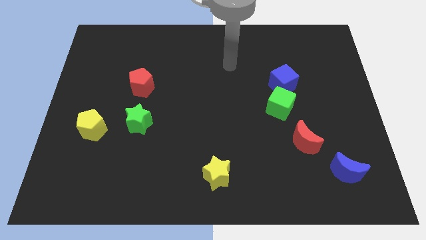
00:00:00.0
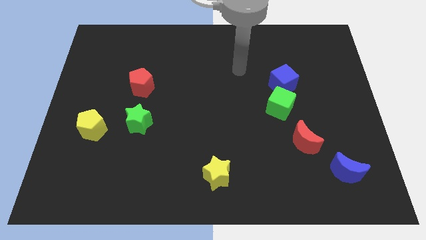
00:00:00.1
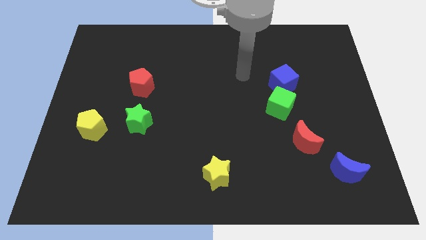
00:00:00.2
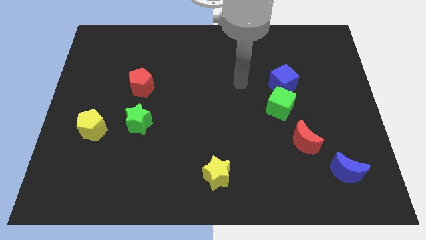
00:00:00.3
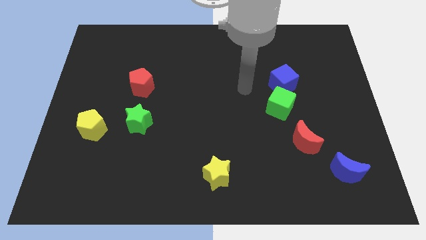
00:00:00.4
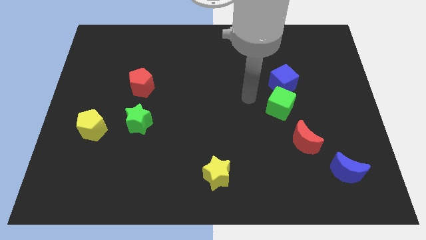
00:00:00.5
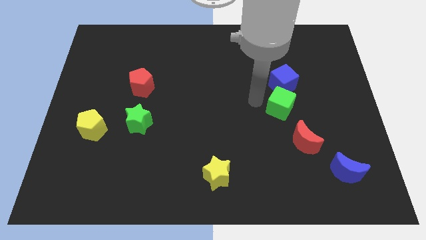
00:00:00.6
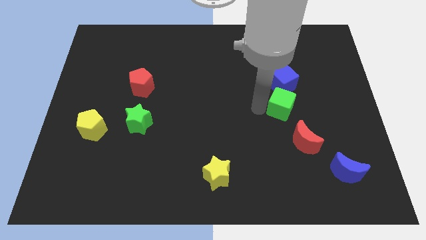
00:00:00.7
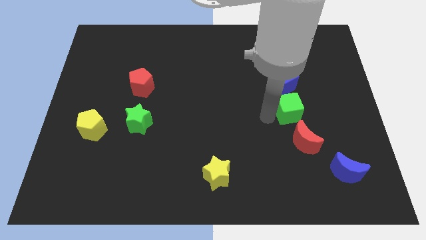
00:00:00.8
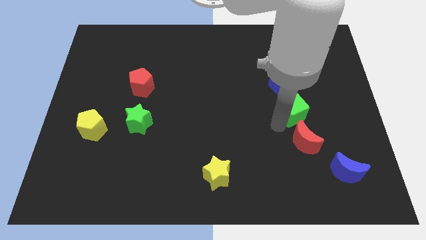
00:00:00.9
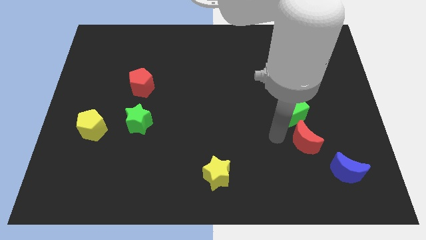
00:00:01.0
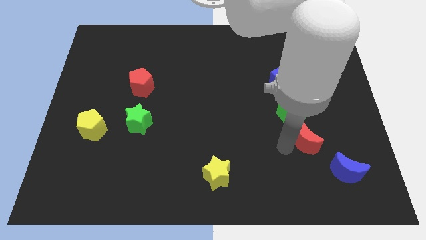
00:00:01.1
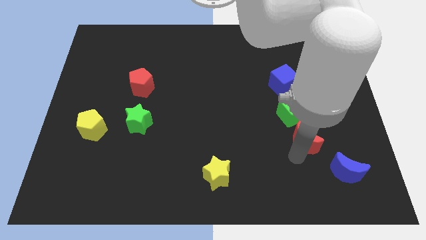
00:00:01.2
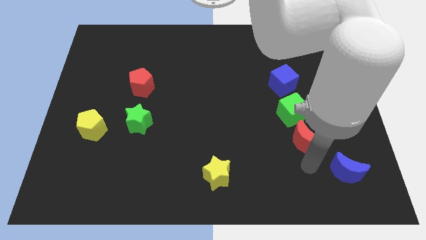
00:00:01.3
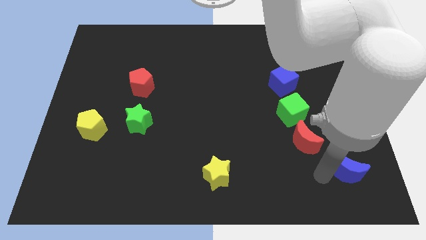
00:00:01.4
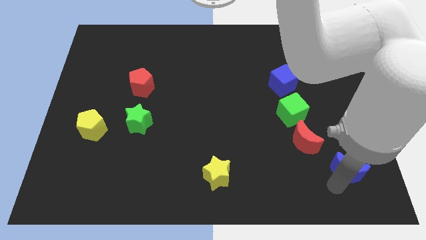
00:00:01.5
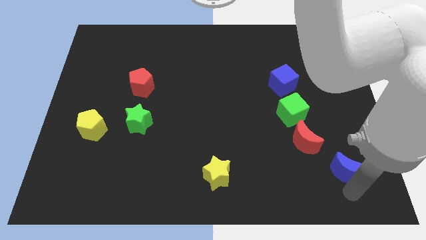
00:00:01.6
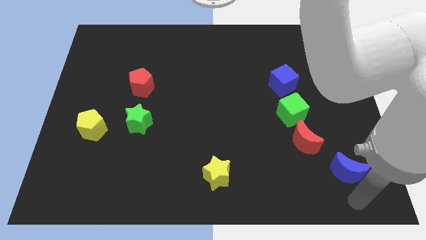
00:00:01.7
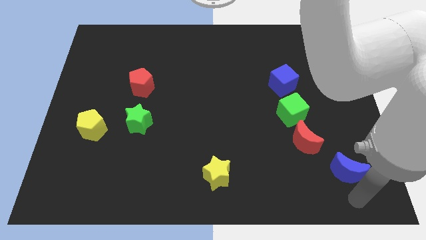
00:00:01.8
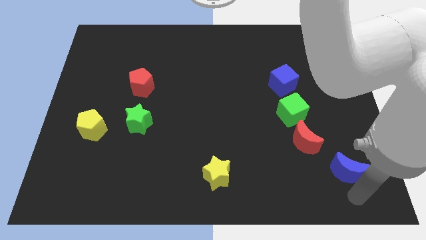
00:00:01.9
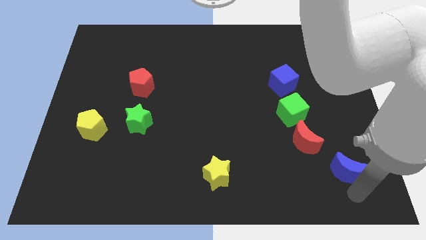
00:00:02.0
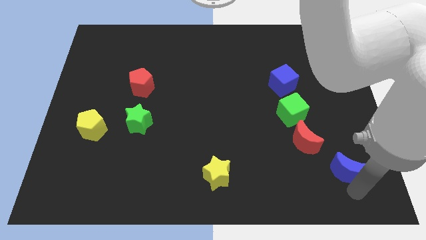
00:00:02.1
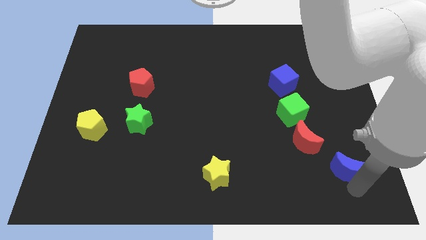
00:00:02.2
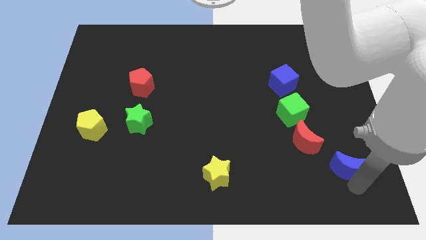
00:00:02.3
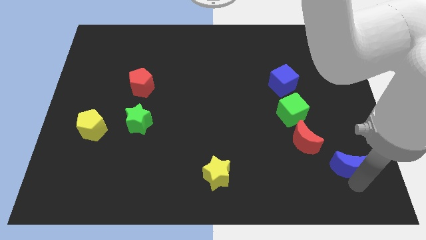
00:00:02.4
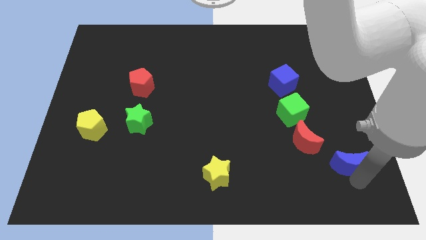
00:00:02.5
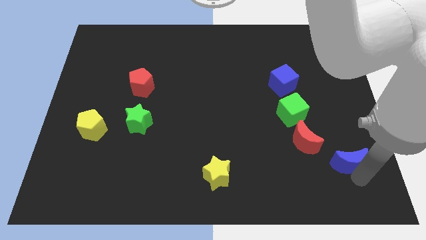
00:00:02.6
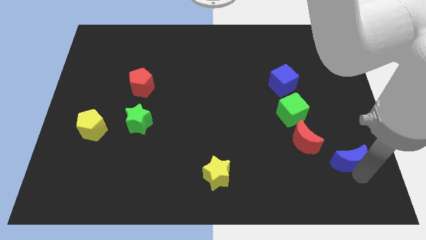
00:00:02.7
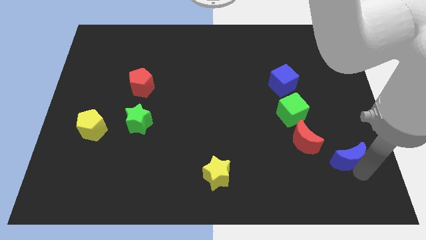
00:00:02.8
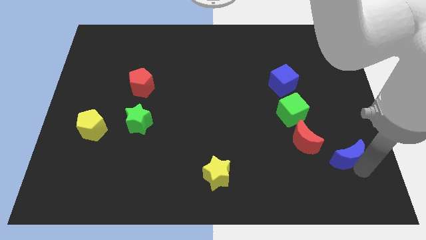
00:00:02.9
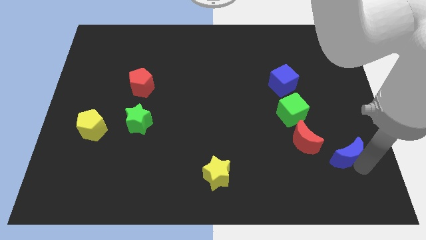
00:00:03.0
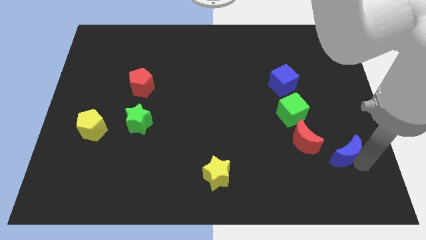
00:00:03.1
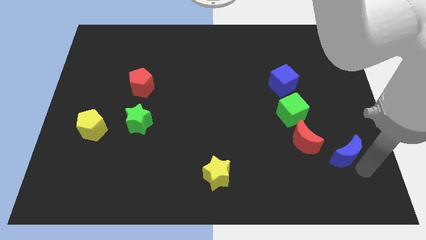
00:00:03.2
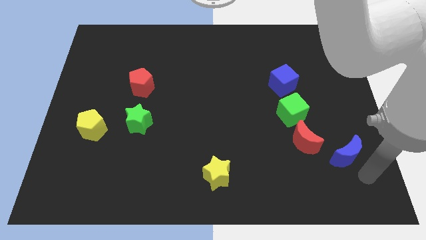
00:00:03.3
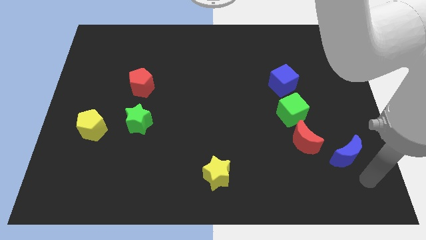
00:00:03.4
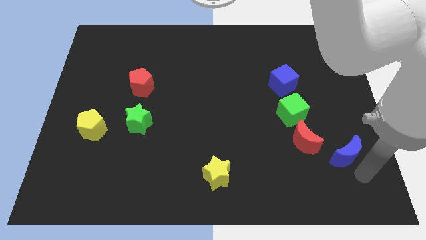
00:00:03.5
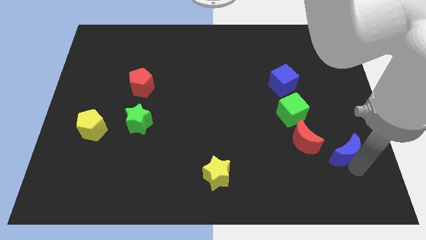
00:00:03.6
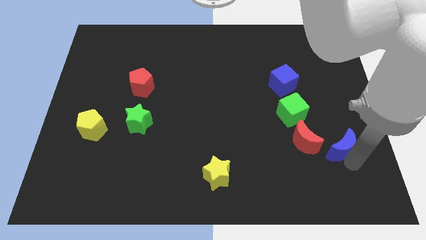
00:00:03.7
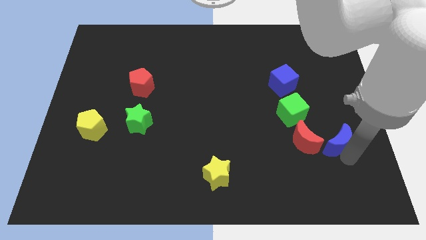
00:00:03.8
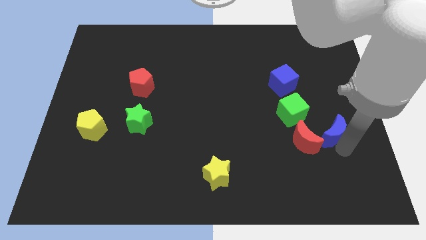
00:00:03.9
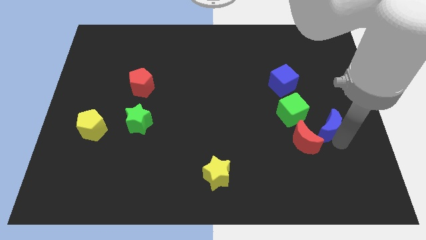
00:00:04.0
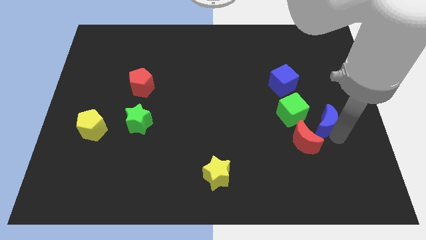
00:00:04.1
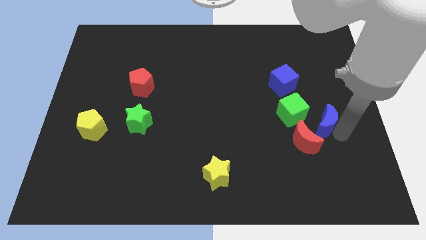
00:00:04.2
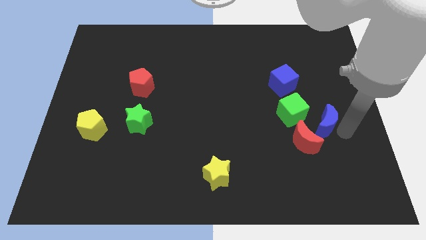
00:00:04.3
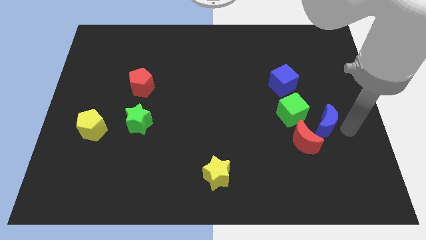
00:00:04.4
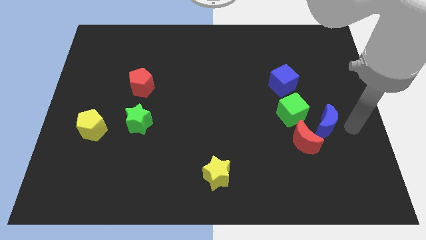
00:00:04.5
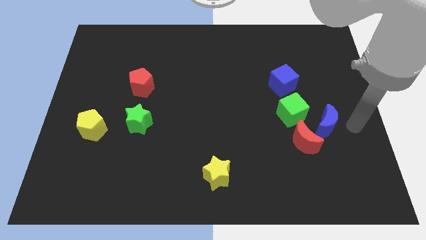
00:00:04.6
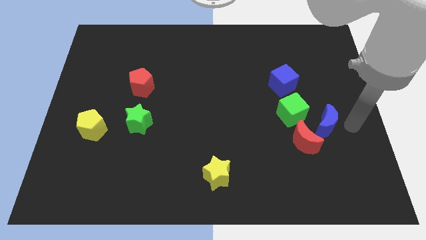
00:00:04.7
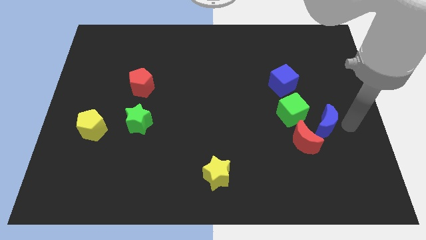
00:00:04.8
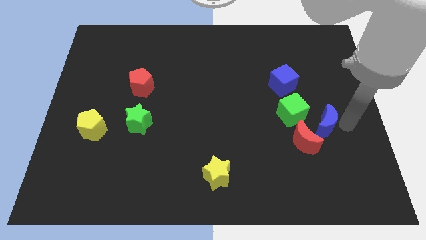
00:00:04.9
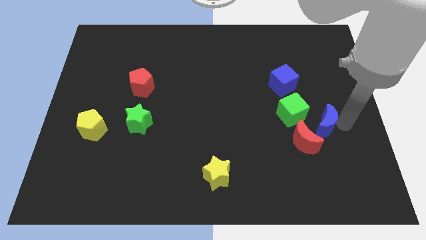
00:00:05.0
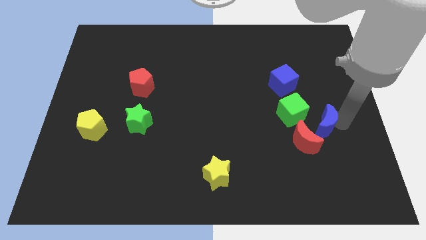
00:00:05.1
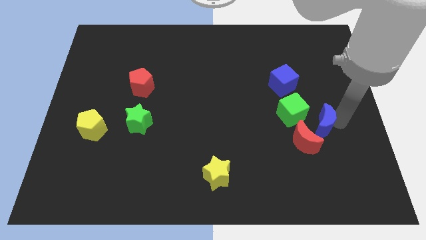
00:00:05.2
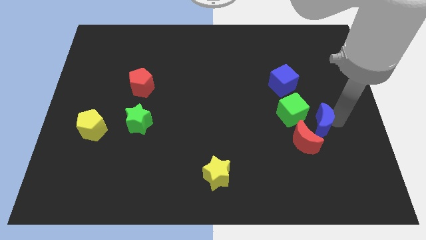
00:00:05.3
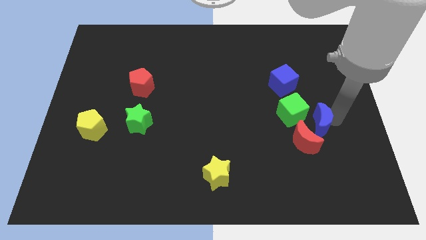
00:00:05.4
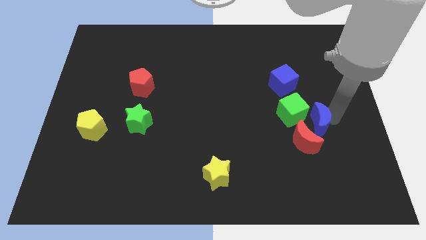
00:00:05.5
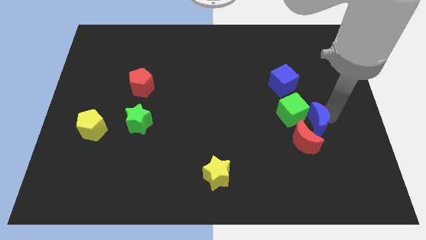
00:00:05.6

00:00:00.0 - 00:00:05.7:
move the blue moon to the green cube

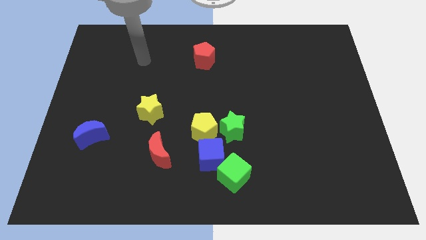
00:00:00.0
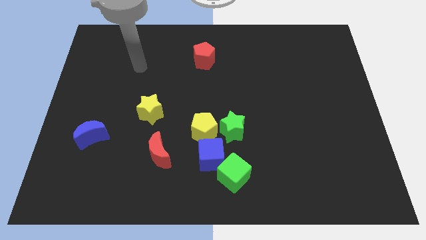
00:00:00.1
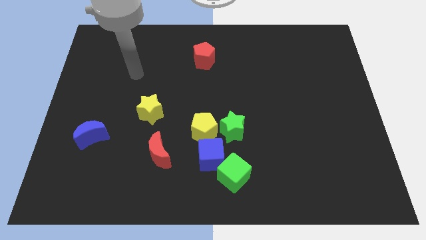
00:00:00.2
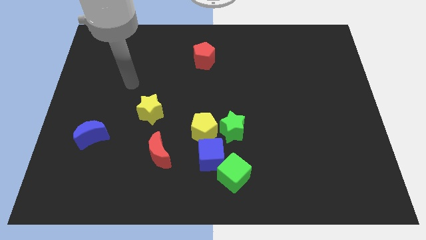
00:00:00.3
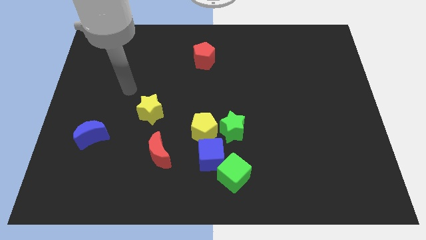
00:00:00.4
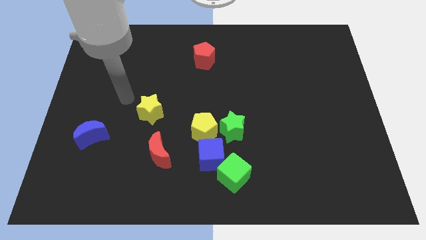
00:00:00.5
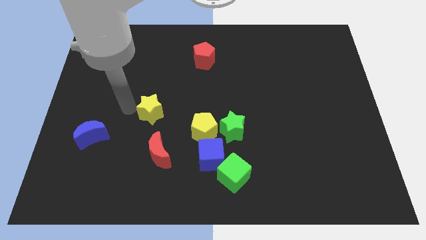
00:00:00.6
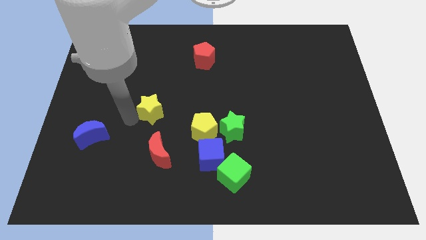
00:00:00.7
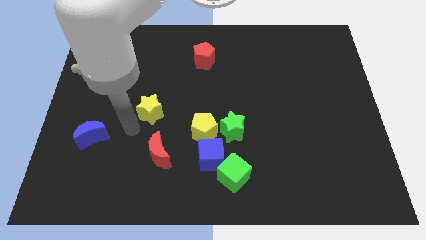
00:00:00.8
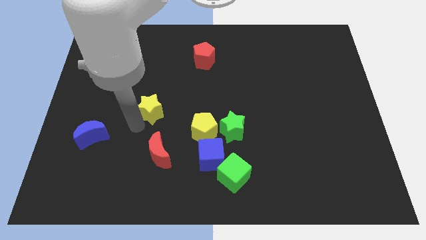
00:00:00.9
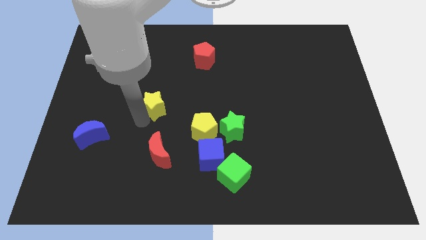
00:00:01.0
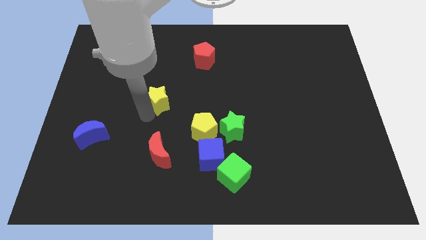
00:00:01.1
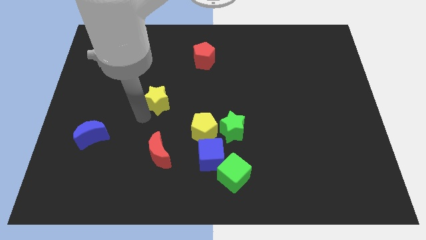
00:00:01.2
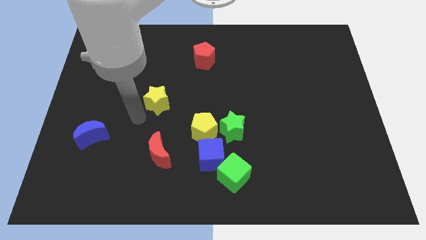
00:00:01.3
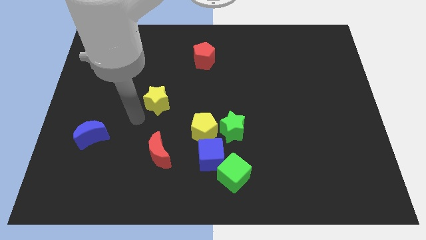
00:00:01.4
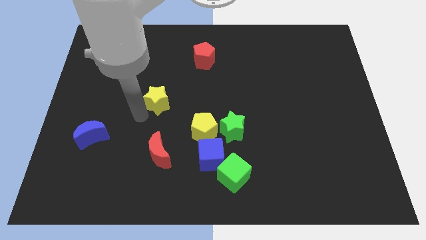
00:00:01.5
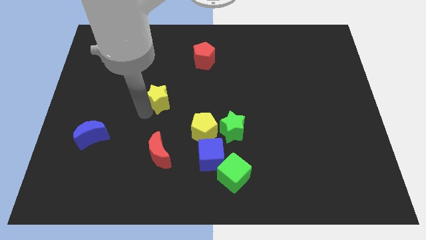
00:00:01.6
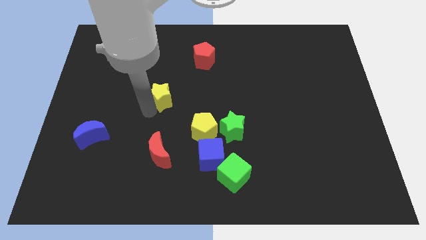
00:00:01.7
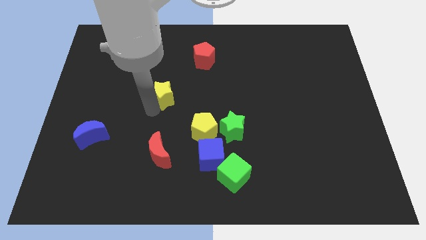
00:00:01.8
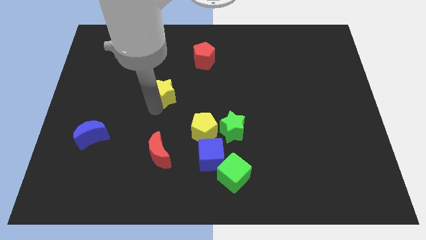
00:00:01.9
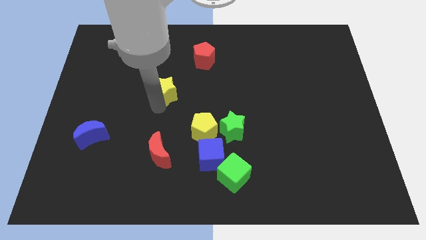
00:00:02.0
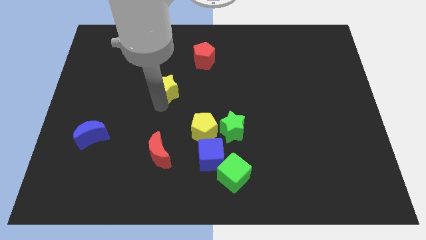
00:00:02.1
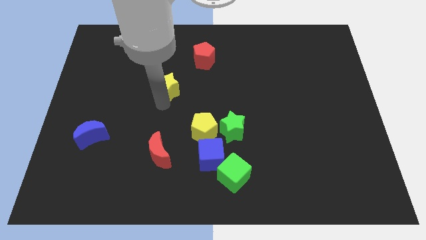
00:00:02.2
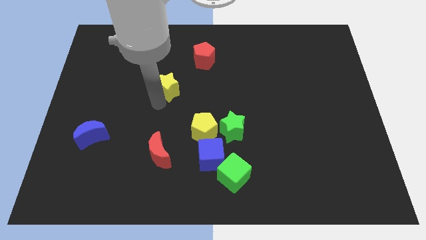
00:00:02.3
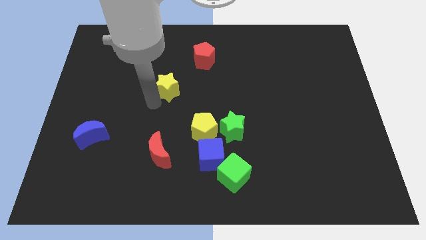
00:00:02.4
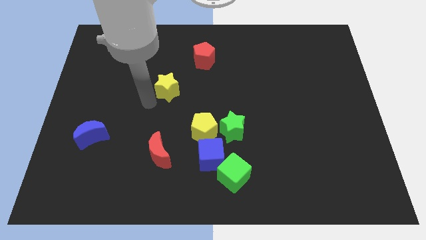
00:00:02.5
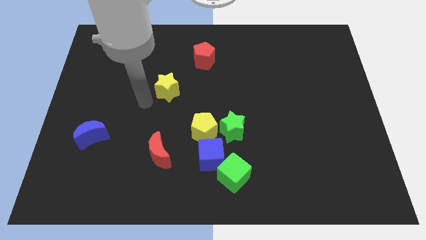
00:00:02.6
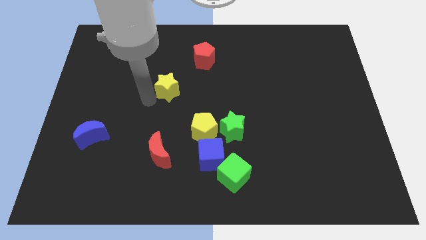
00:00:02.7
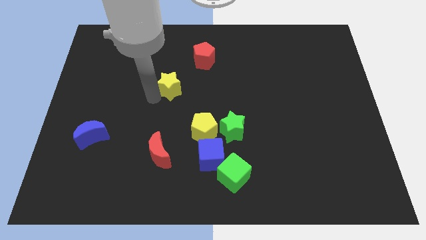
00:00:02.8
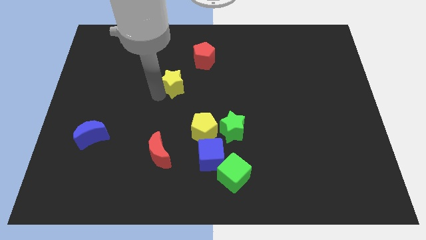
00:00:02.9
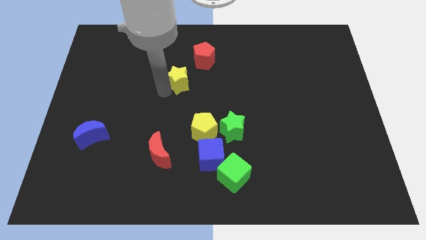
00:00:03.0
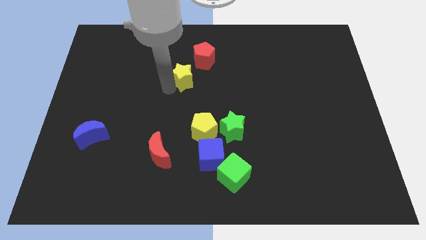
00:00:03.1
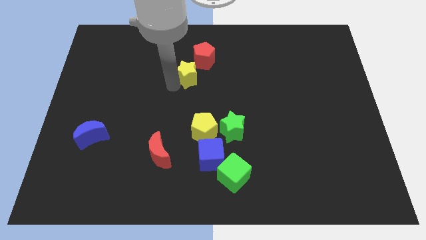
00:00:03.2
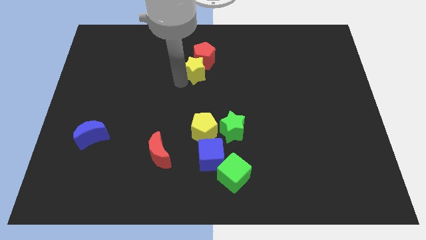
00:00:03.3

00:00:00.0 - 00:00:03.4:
push the yellow star close to the red pentagon
